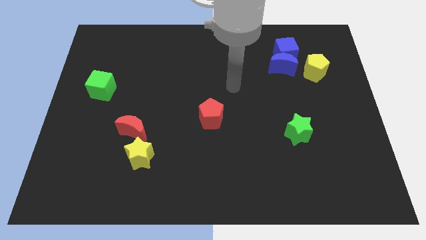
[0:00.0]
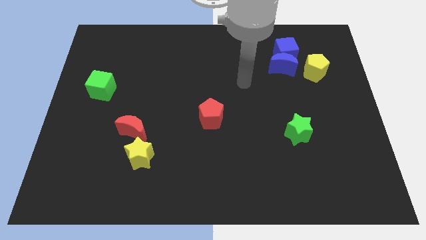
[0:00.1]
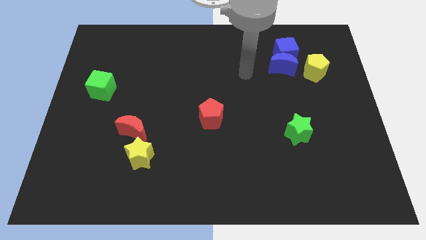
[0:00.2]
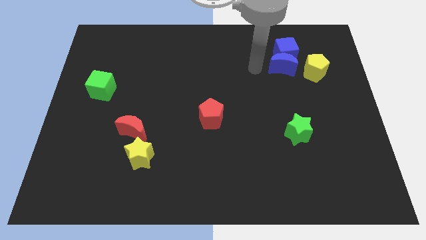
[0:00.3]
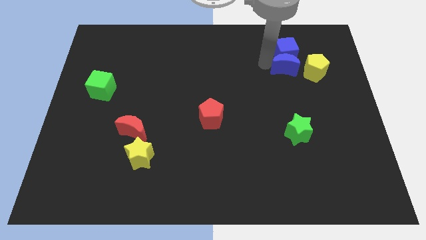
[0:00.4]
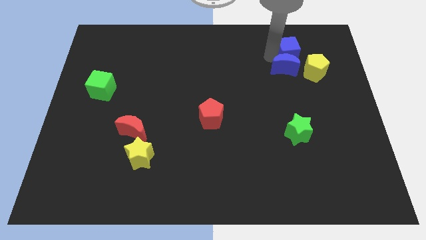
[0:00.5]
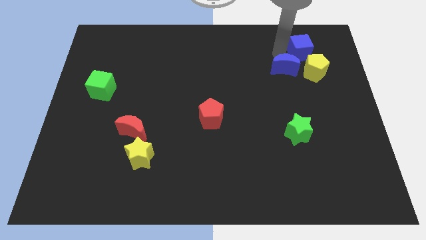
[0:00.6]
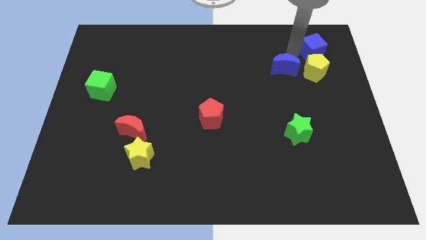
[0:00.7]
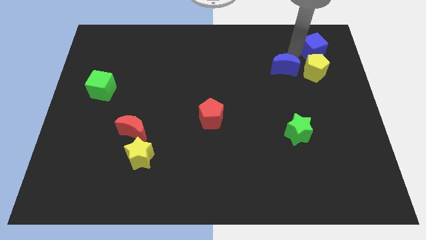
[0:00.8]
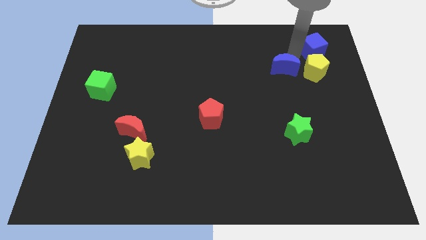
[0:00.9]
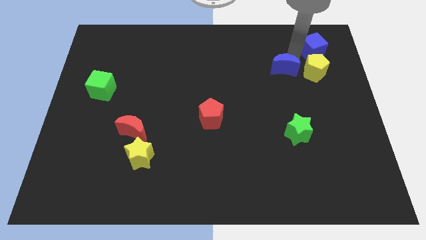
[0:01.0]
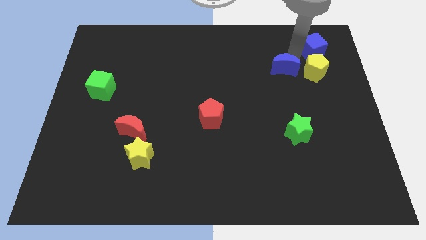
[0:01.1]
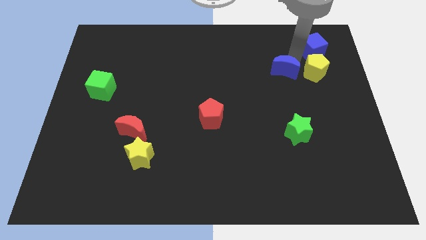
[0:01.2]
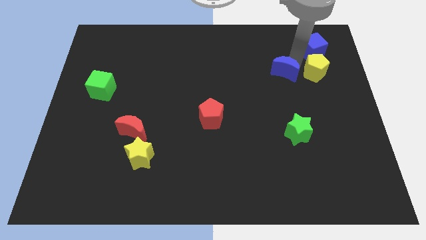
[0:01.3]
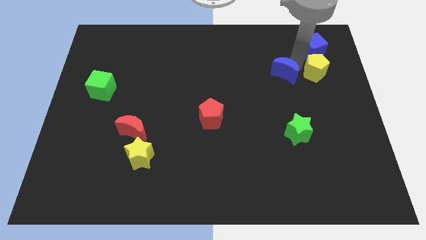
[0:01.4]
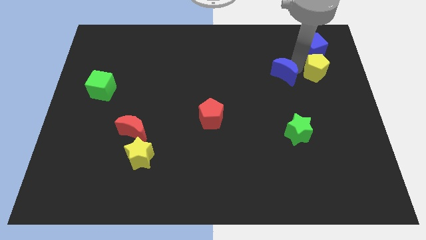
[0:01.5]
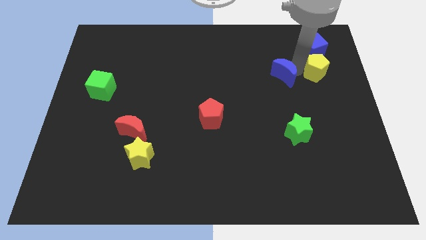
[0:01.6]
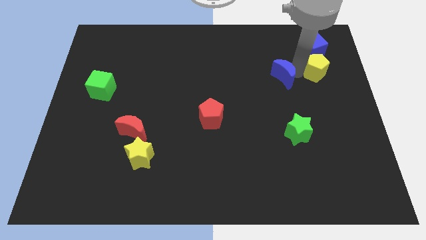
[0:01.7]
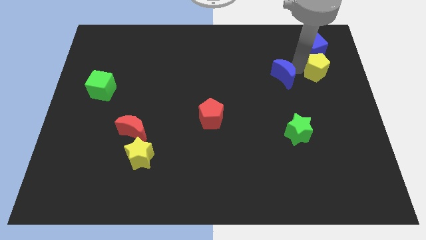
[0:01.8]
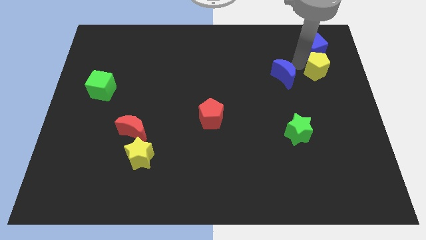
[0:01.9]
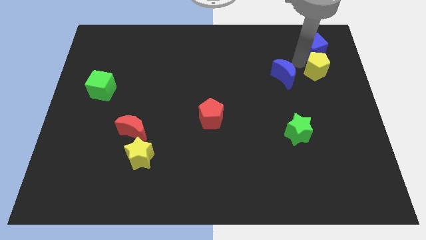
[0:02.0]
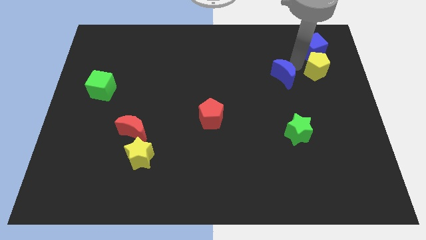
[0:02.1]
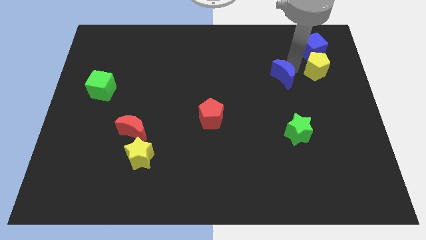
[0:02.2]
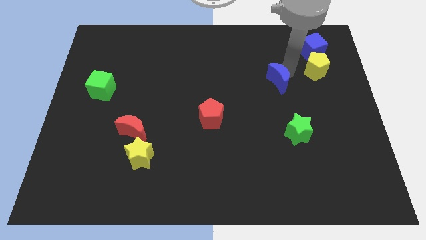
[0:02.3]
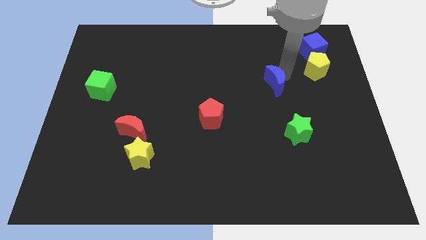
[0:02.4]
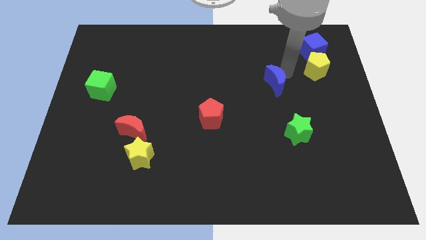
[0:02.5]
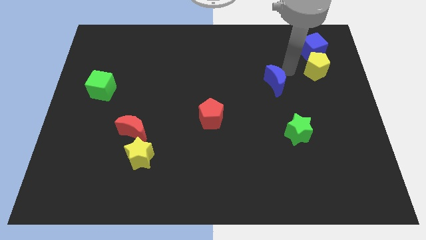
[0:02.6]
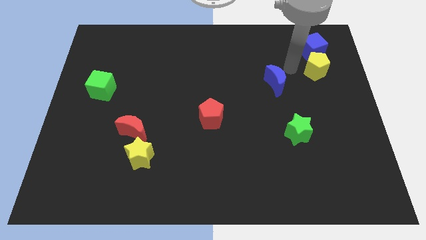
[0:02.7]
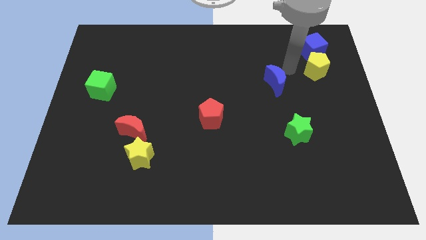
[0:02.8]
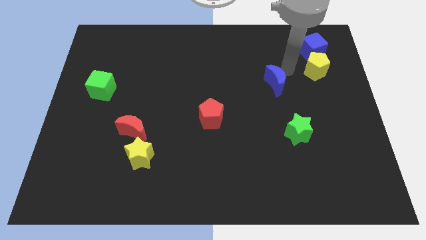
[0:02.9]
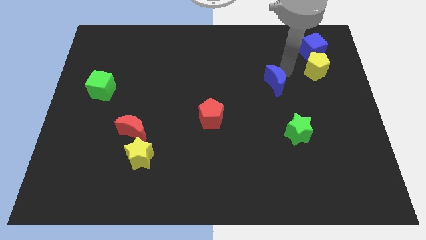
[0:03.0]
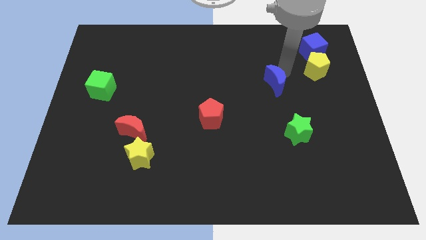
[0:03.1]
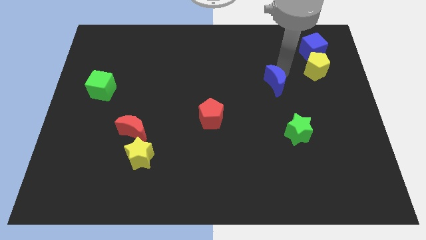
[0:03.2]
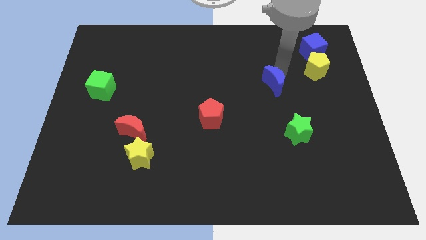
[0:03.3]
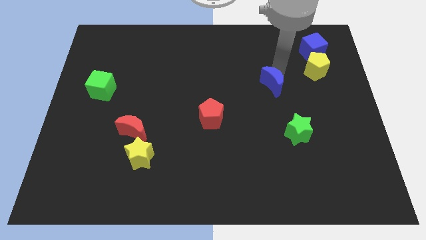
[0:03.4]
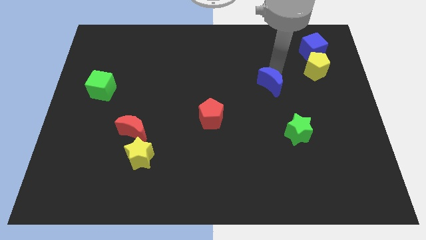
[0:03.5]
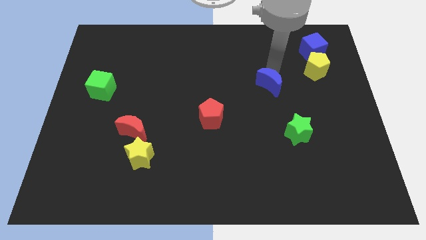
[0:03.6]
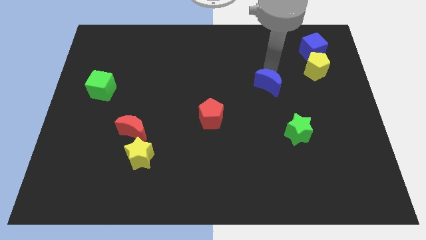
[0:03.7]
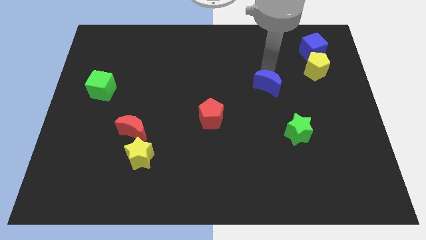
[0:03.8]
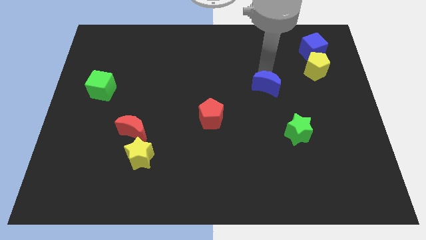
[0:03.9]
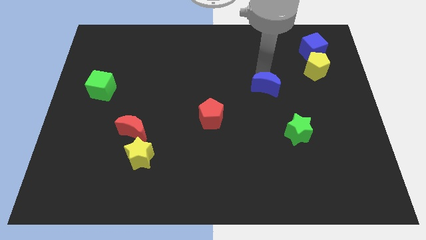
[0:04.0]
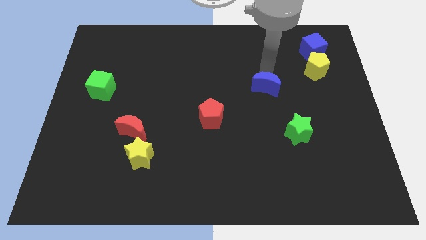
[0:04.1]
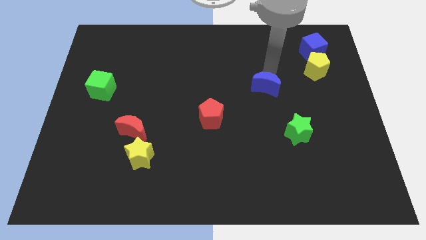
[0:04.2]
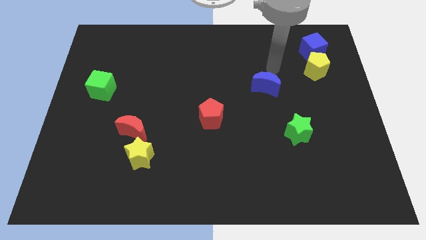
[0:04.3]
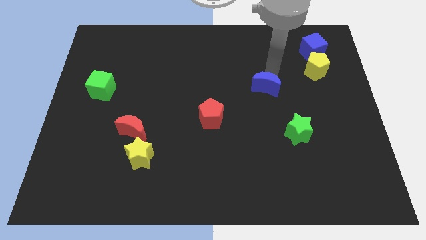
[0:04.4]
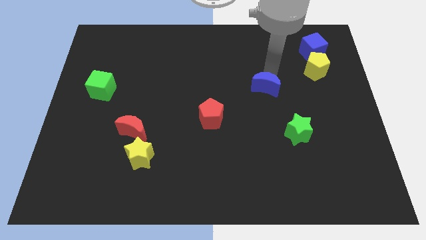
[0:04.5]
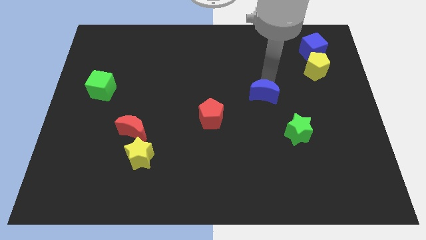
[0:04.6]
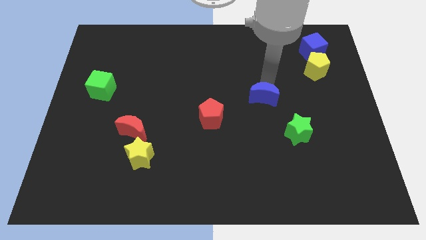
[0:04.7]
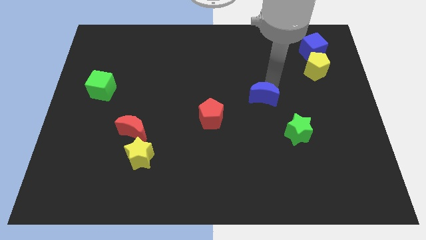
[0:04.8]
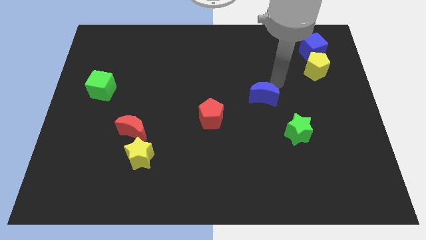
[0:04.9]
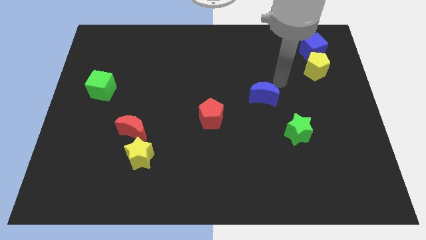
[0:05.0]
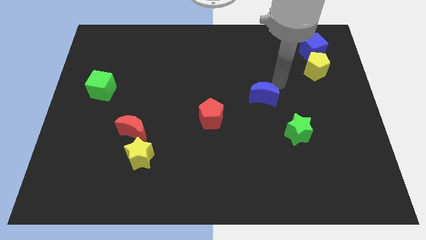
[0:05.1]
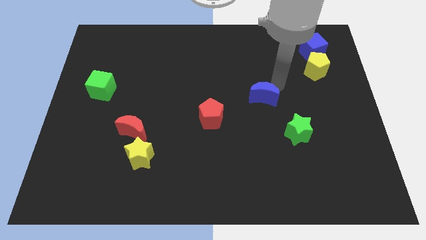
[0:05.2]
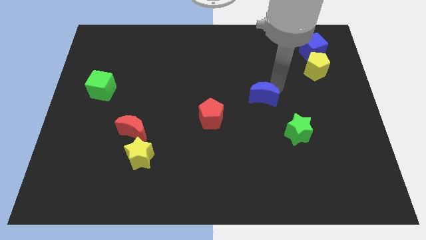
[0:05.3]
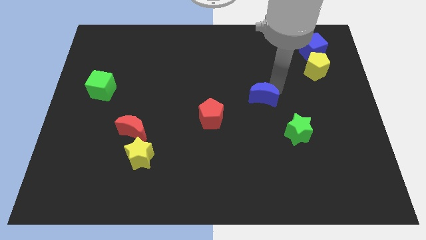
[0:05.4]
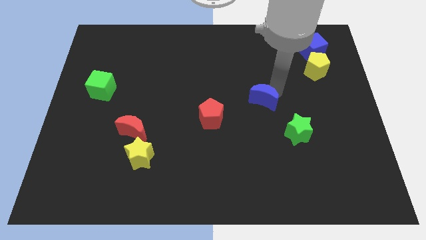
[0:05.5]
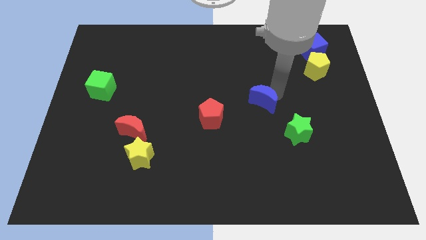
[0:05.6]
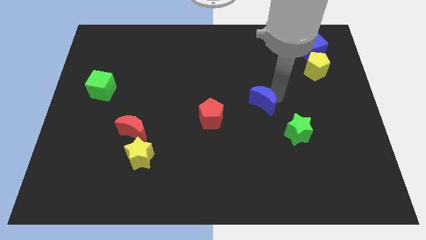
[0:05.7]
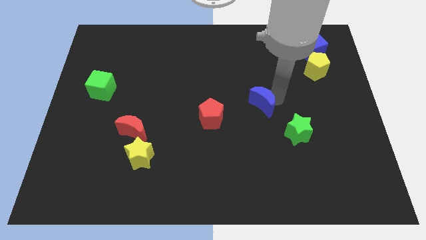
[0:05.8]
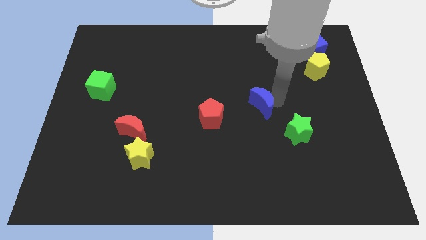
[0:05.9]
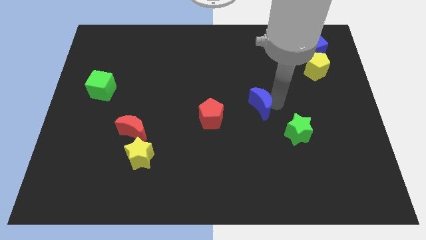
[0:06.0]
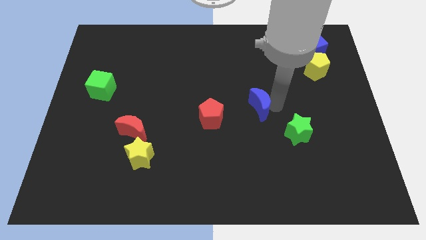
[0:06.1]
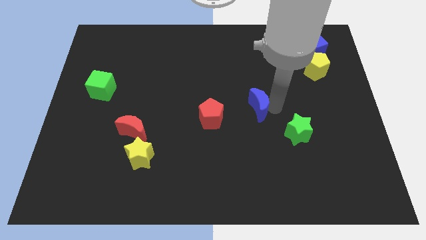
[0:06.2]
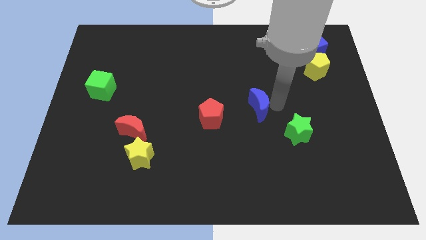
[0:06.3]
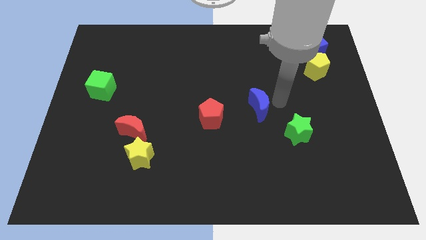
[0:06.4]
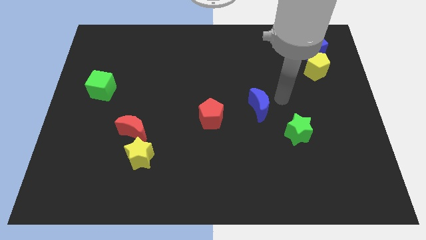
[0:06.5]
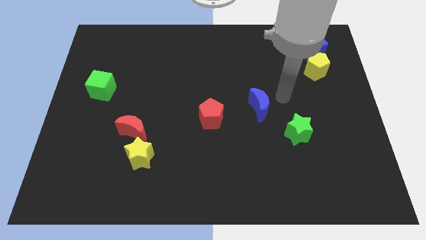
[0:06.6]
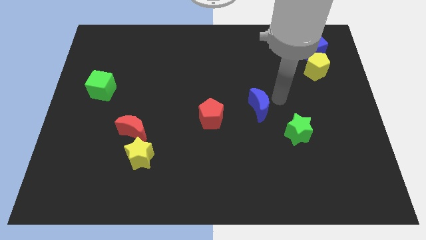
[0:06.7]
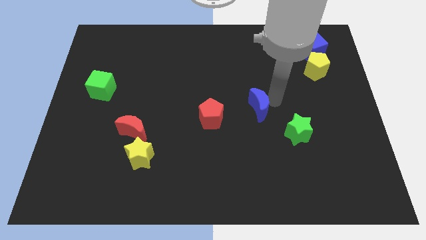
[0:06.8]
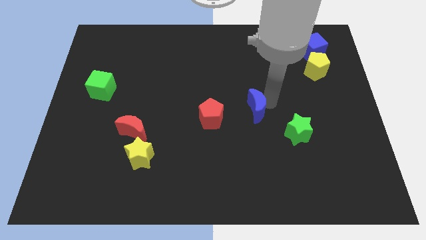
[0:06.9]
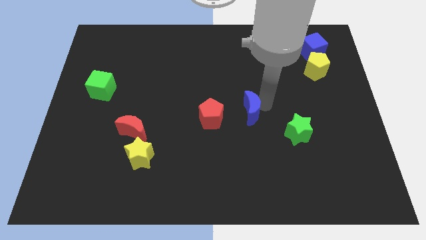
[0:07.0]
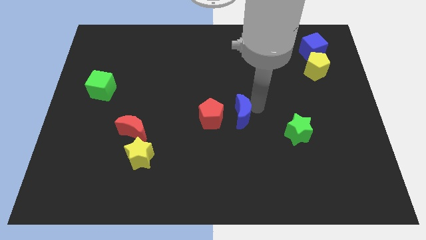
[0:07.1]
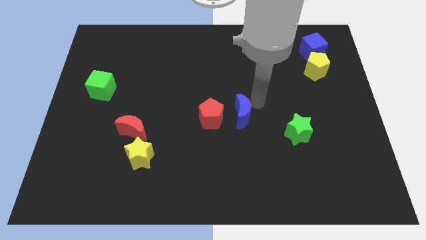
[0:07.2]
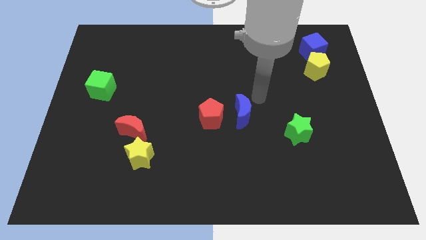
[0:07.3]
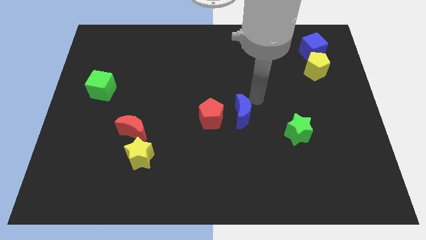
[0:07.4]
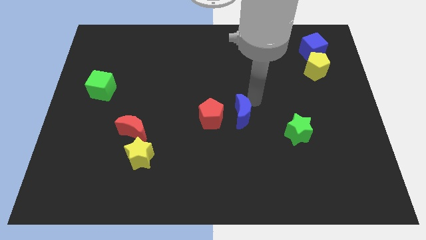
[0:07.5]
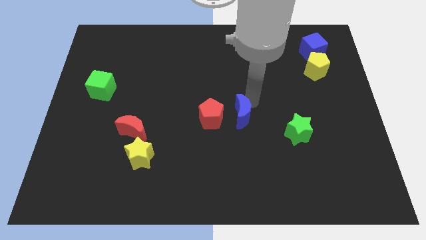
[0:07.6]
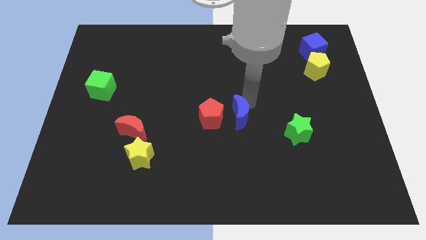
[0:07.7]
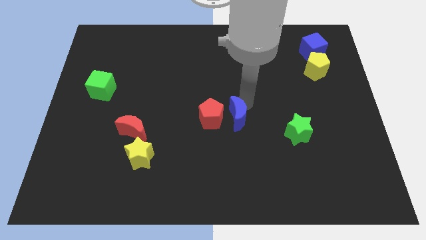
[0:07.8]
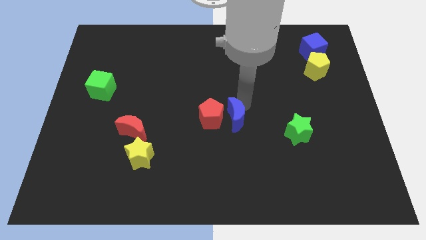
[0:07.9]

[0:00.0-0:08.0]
move the blue moon downwards and left diagonally
